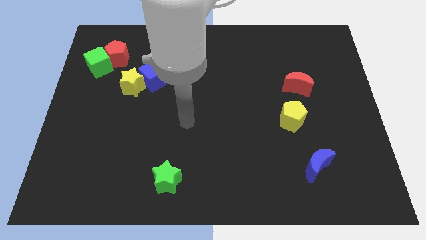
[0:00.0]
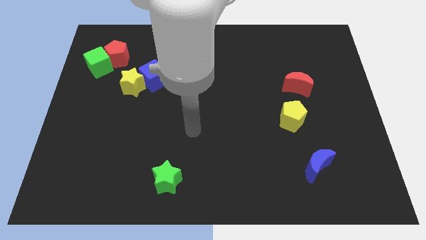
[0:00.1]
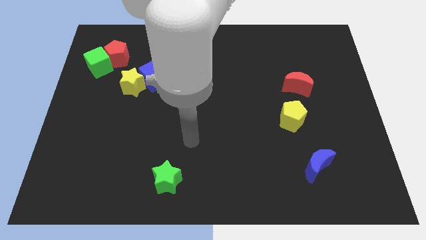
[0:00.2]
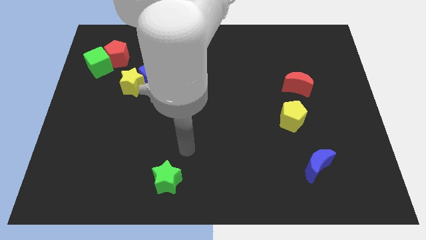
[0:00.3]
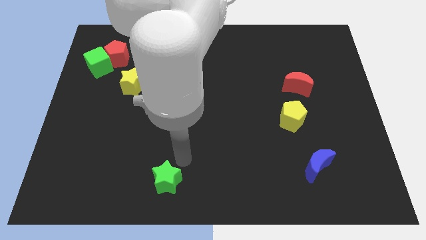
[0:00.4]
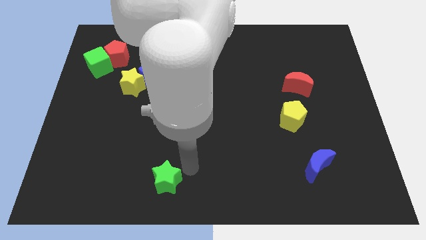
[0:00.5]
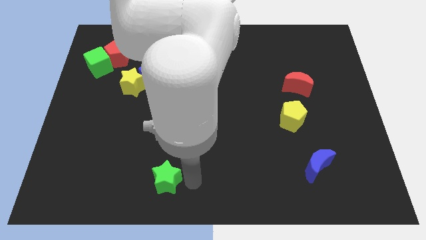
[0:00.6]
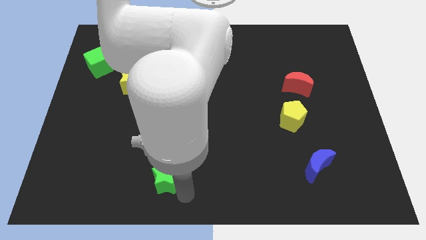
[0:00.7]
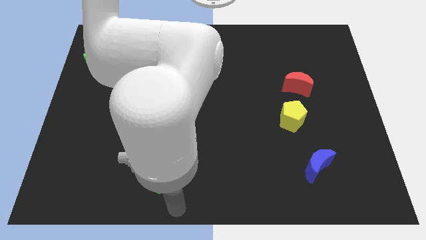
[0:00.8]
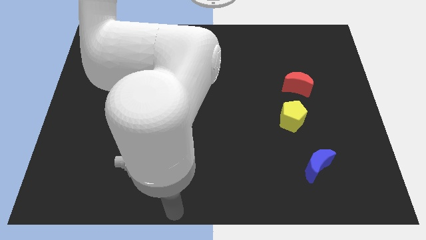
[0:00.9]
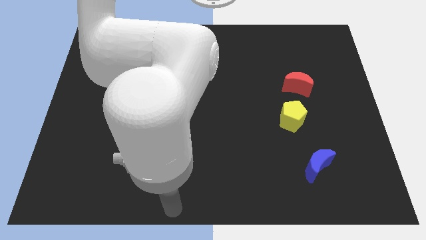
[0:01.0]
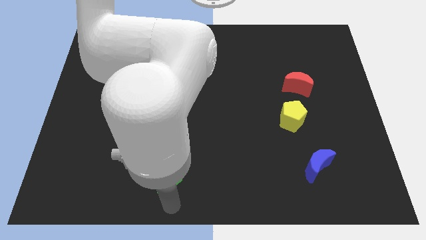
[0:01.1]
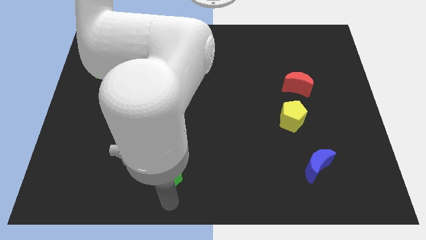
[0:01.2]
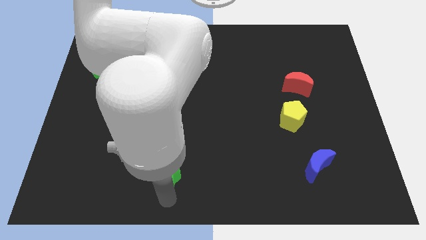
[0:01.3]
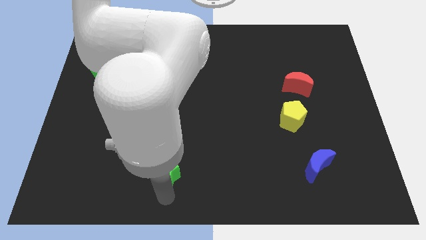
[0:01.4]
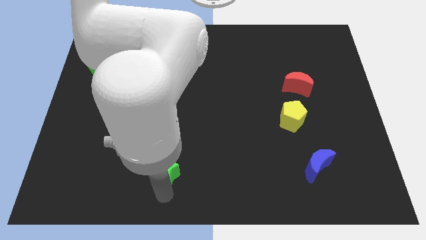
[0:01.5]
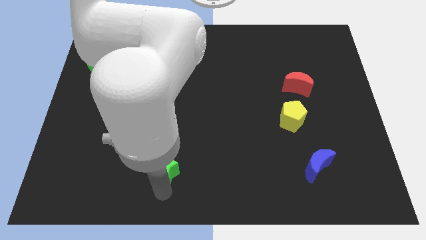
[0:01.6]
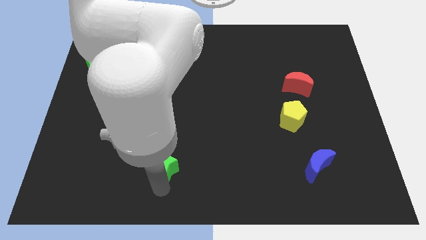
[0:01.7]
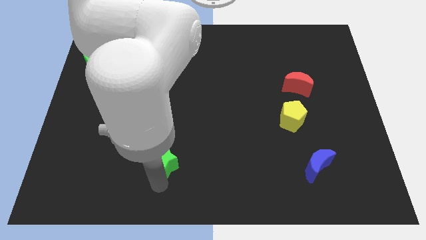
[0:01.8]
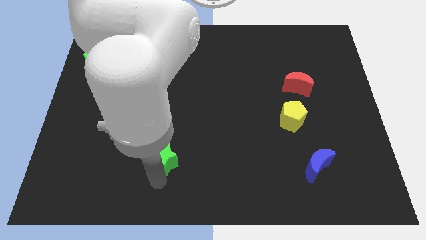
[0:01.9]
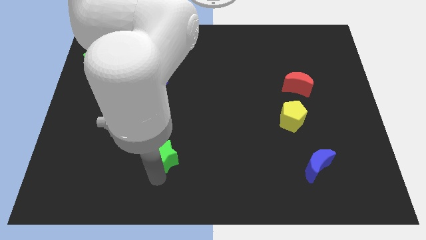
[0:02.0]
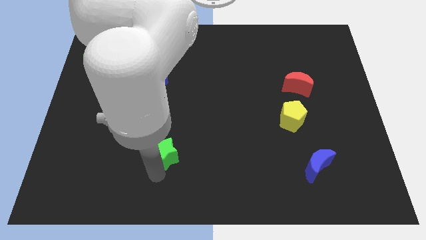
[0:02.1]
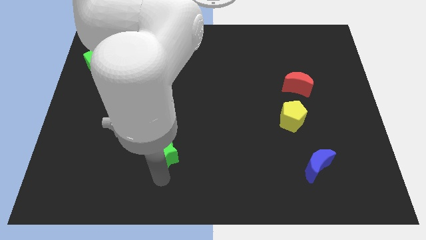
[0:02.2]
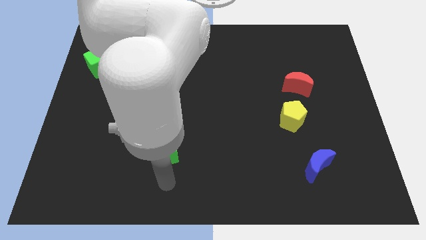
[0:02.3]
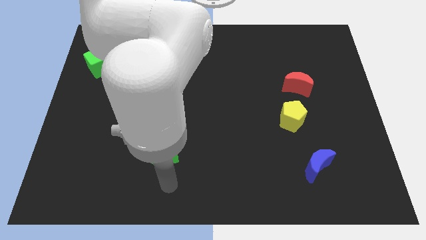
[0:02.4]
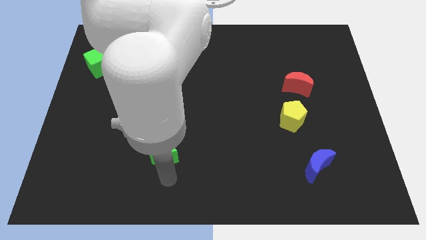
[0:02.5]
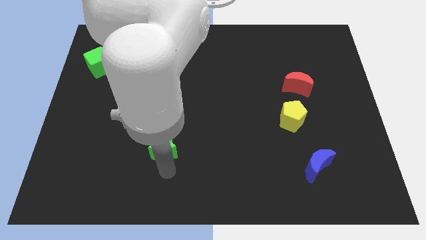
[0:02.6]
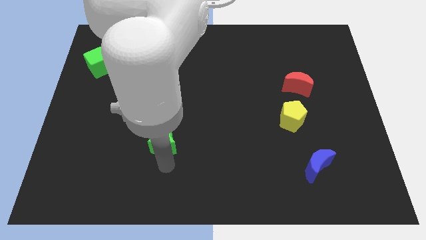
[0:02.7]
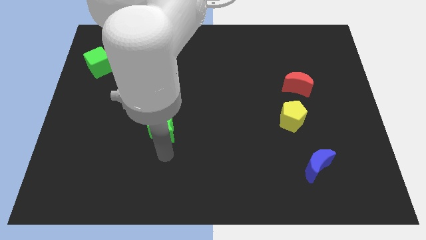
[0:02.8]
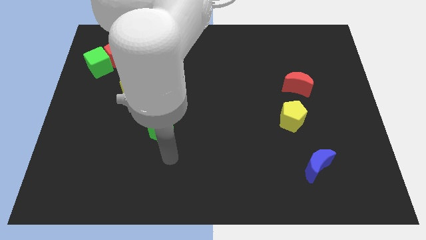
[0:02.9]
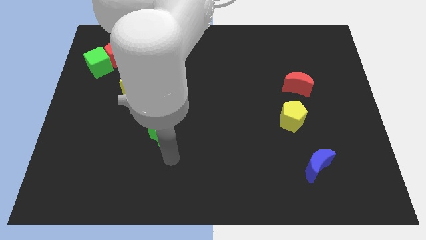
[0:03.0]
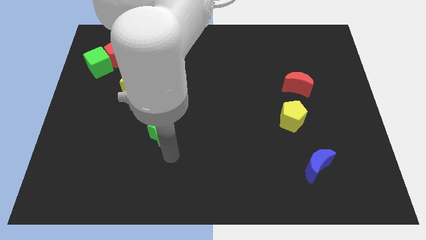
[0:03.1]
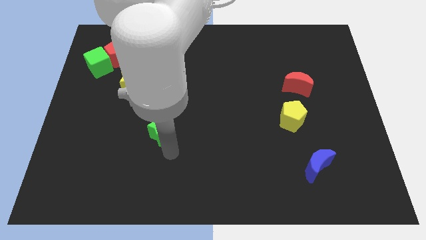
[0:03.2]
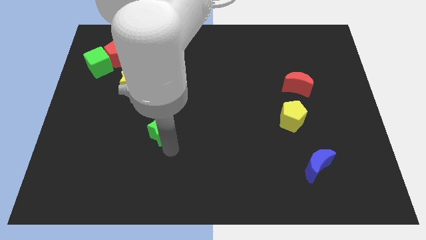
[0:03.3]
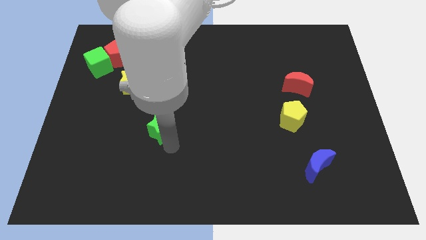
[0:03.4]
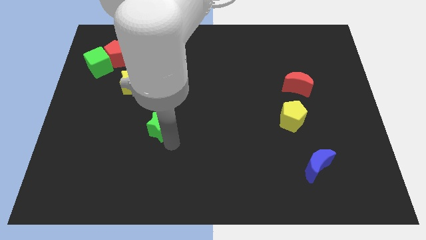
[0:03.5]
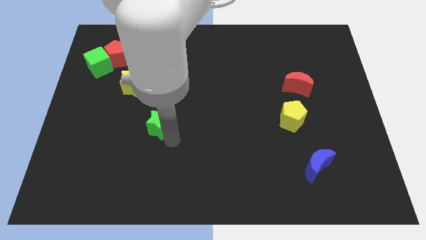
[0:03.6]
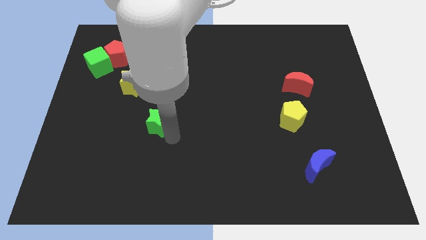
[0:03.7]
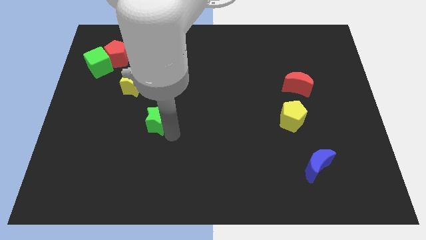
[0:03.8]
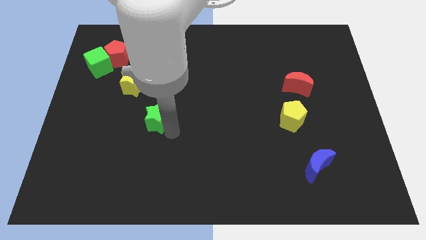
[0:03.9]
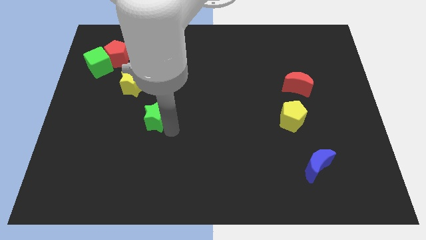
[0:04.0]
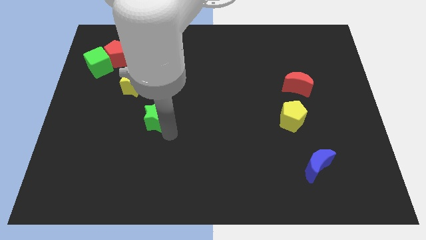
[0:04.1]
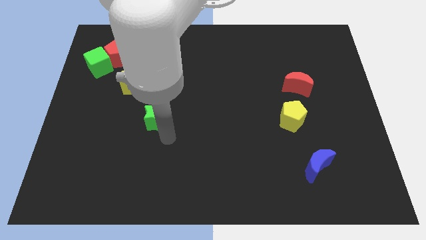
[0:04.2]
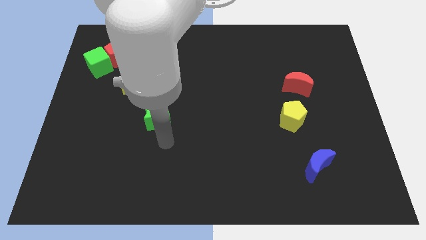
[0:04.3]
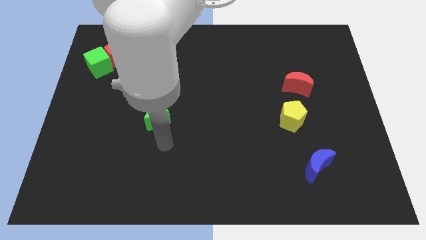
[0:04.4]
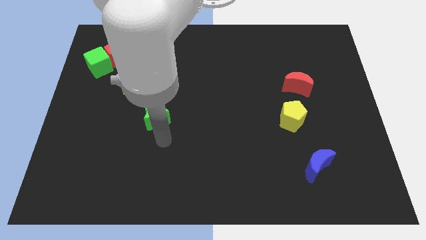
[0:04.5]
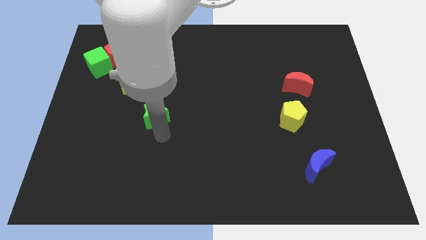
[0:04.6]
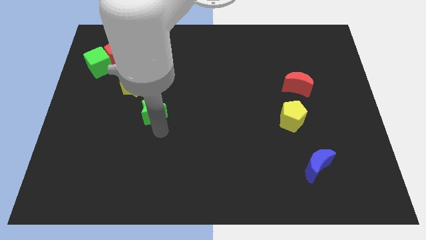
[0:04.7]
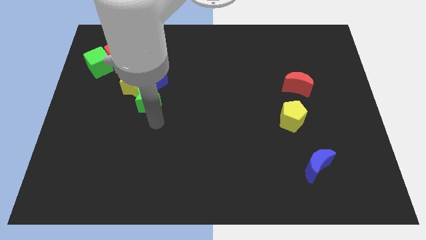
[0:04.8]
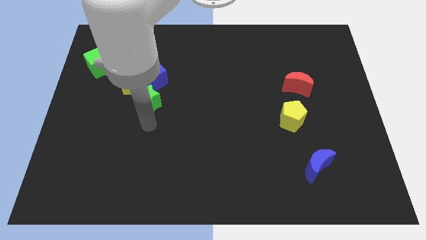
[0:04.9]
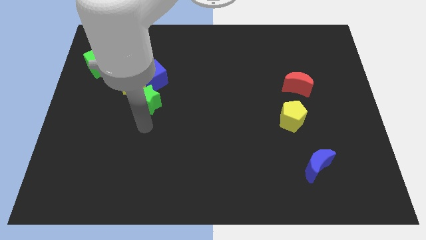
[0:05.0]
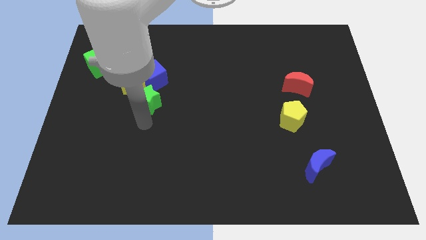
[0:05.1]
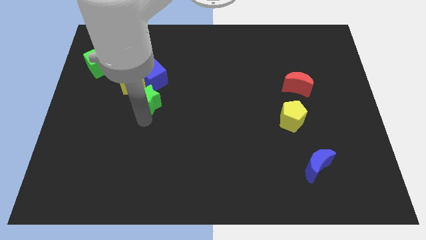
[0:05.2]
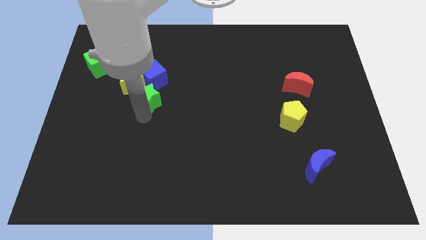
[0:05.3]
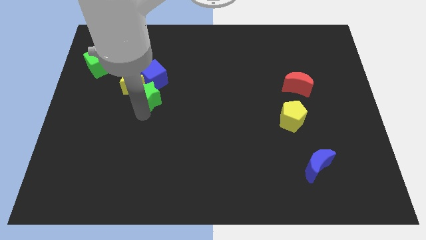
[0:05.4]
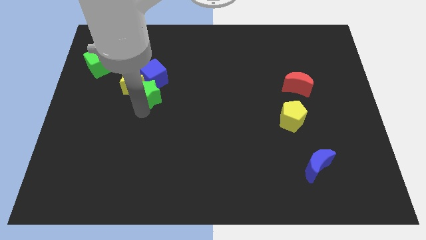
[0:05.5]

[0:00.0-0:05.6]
put the green star to the blue cube

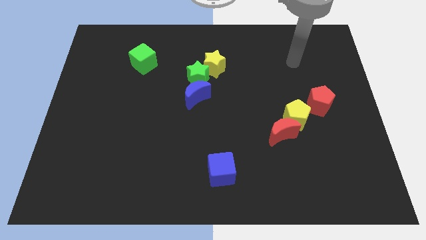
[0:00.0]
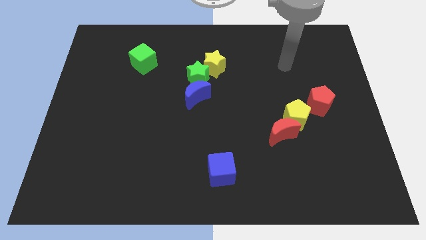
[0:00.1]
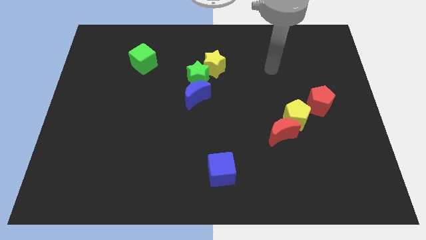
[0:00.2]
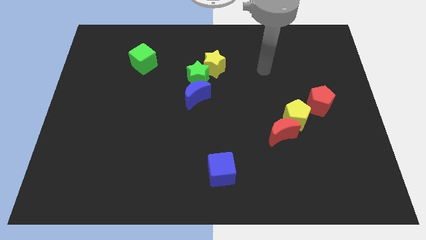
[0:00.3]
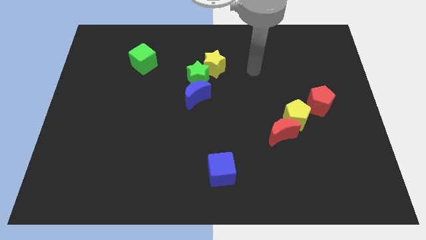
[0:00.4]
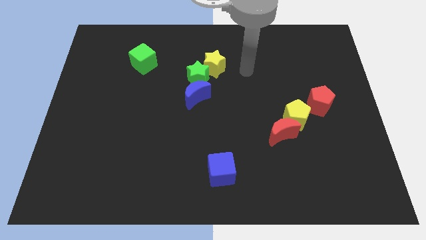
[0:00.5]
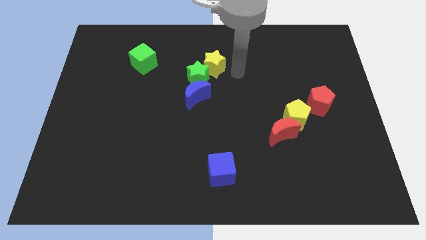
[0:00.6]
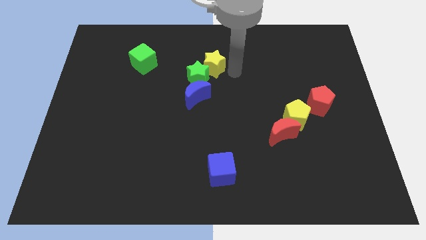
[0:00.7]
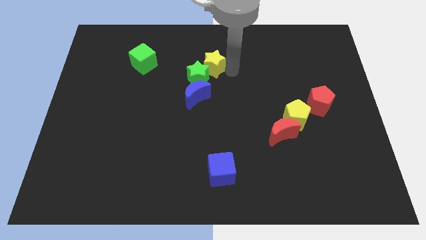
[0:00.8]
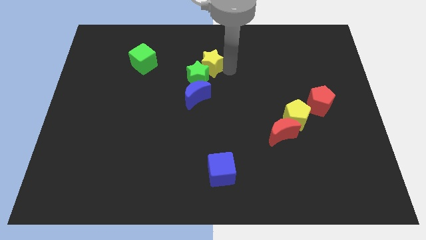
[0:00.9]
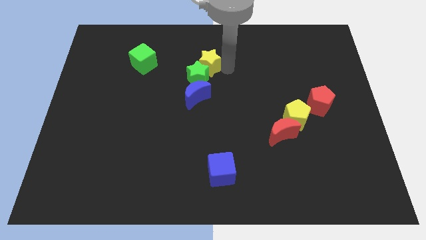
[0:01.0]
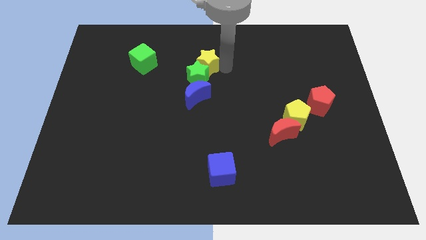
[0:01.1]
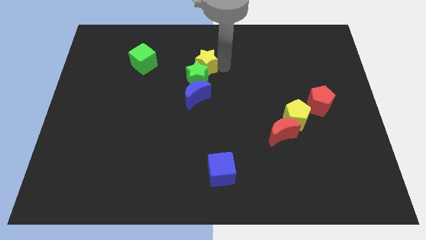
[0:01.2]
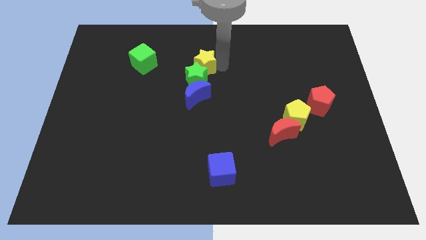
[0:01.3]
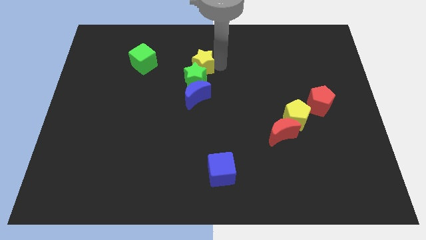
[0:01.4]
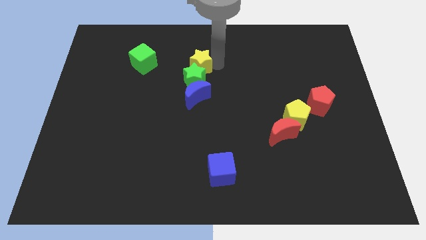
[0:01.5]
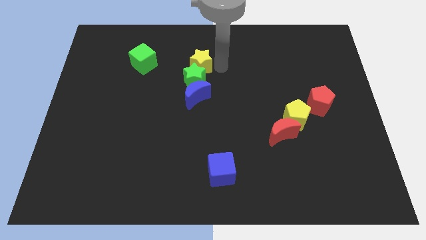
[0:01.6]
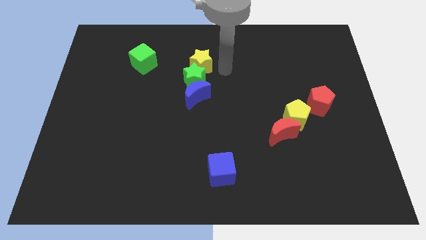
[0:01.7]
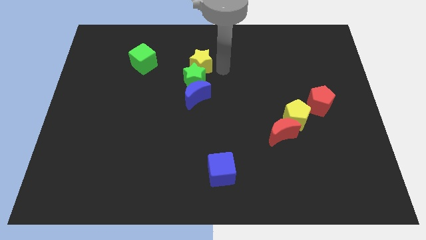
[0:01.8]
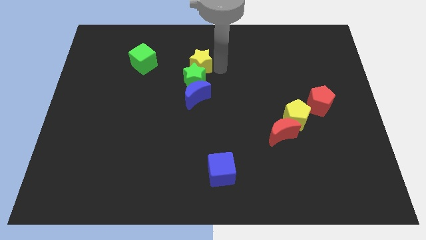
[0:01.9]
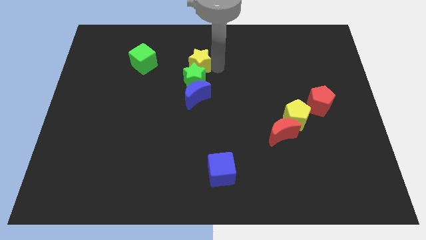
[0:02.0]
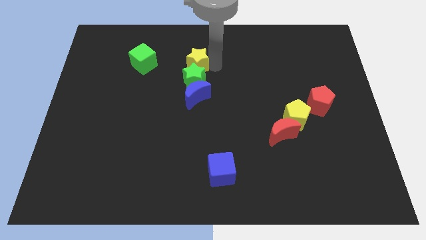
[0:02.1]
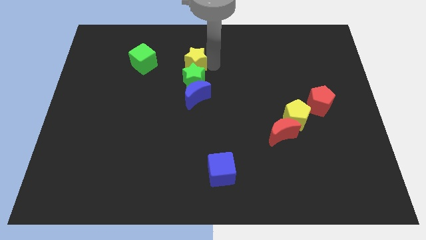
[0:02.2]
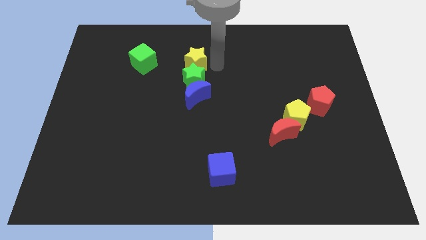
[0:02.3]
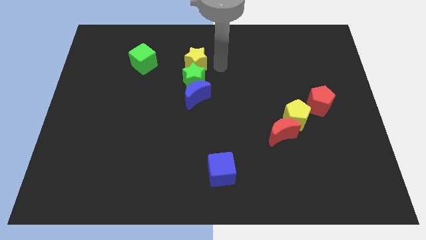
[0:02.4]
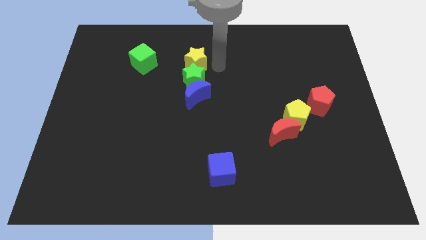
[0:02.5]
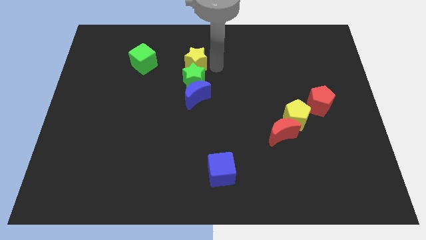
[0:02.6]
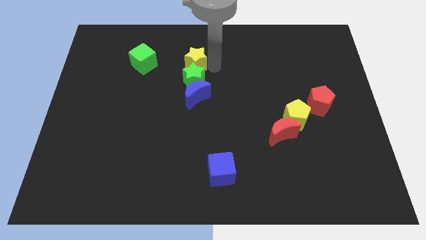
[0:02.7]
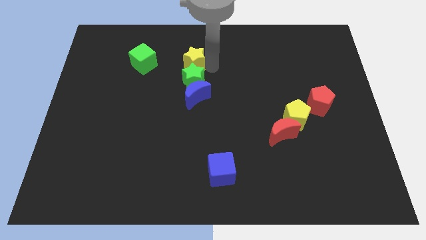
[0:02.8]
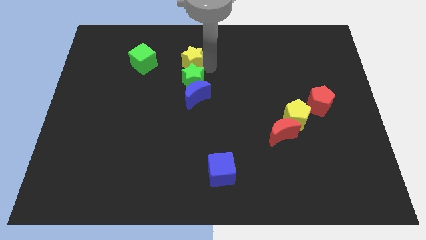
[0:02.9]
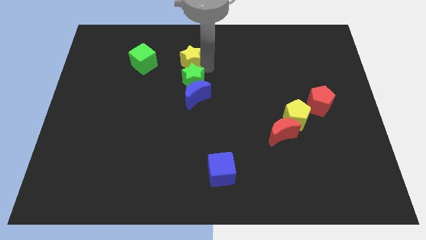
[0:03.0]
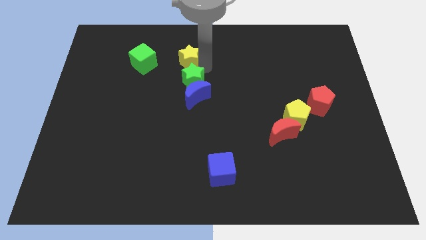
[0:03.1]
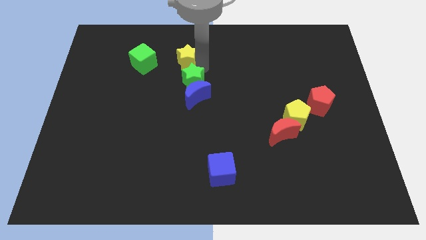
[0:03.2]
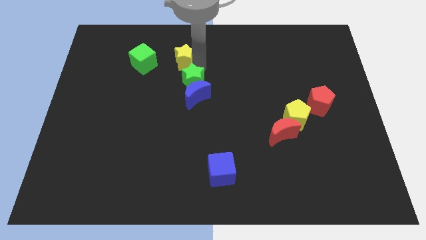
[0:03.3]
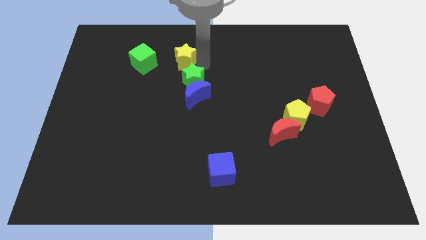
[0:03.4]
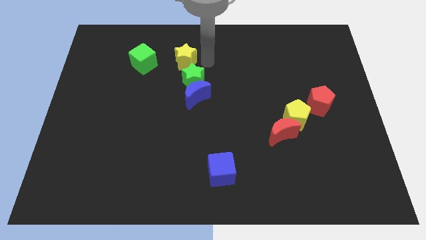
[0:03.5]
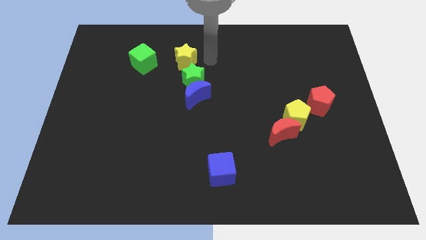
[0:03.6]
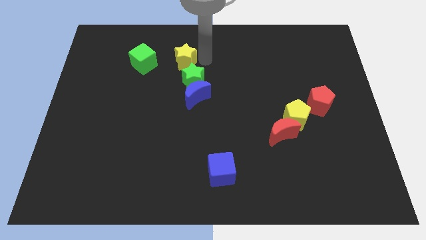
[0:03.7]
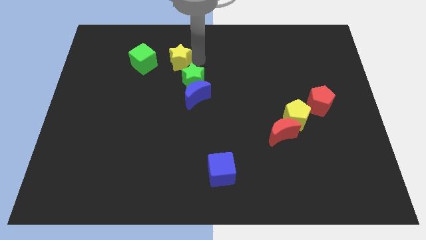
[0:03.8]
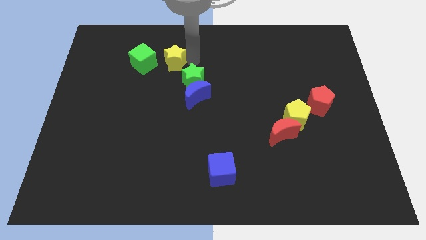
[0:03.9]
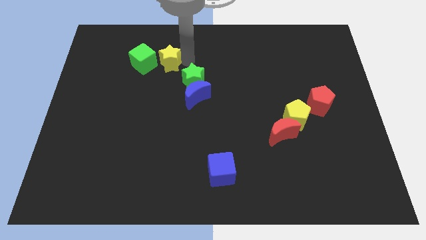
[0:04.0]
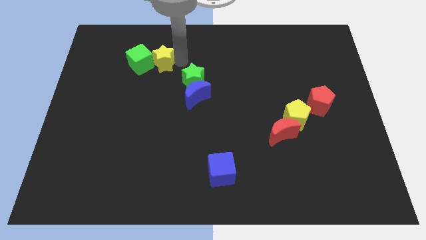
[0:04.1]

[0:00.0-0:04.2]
put the yellow star towards the green cube
